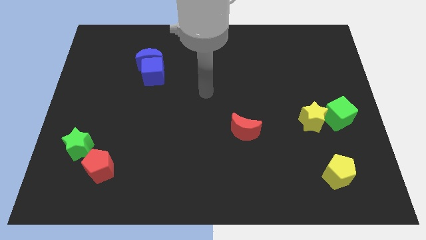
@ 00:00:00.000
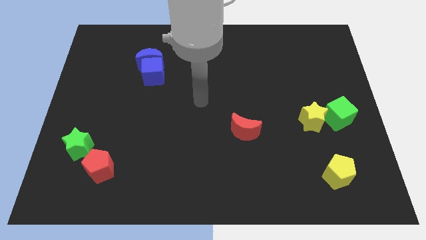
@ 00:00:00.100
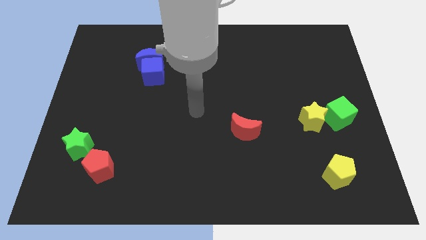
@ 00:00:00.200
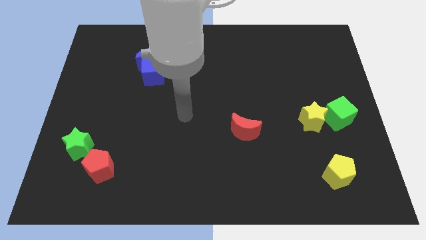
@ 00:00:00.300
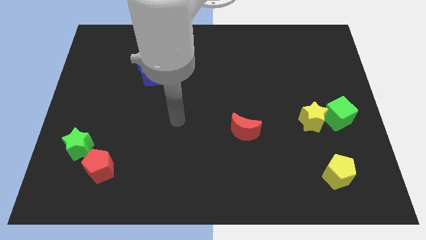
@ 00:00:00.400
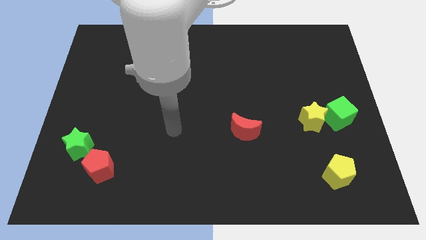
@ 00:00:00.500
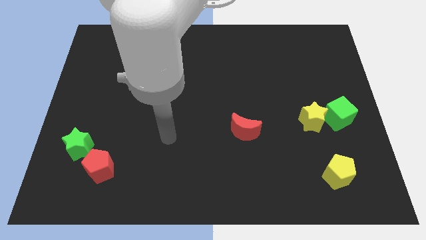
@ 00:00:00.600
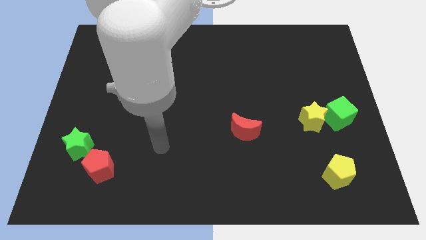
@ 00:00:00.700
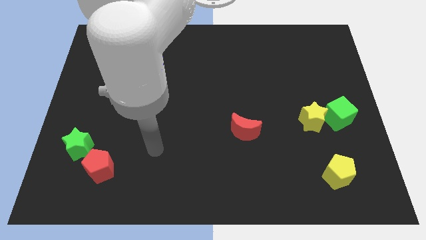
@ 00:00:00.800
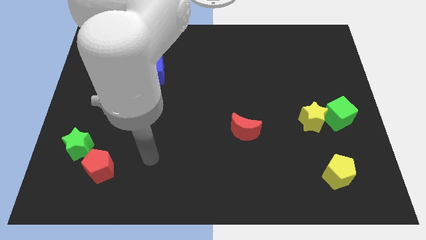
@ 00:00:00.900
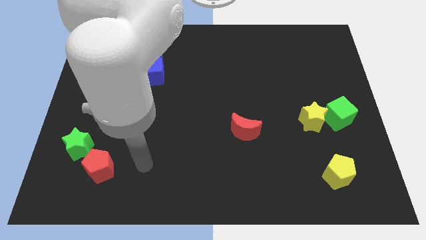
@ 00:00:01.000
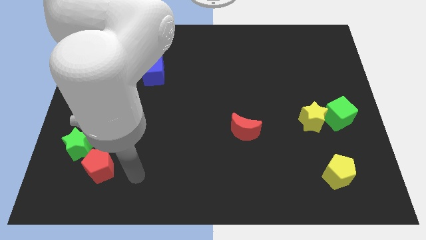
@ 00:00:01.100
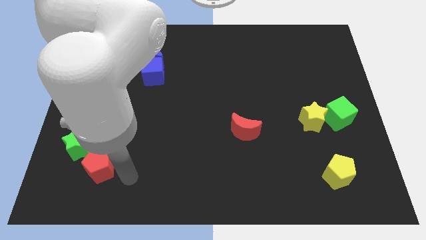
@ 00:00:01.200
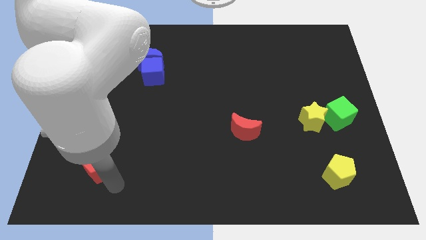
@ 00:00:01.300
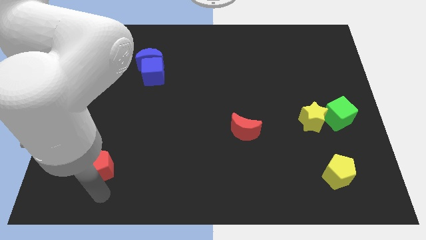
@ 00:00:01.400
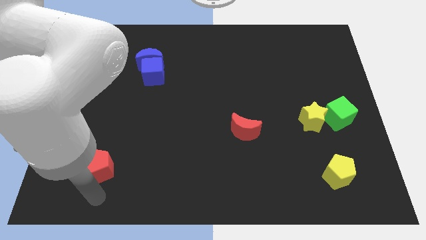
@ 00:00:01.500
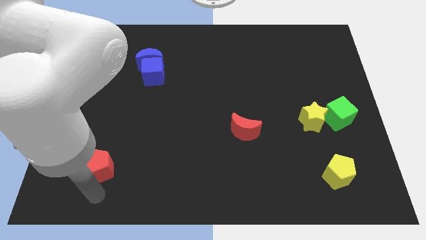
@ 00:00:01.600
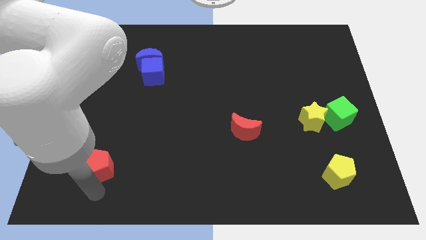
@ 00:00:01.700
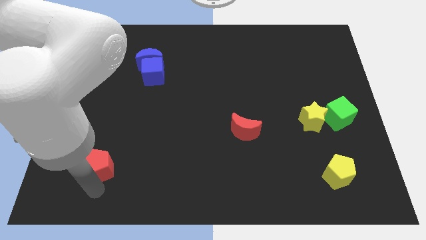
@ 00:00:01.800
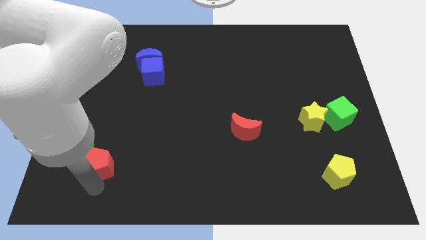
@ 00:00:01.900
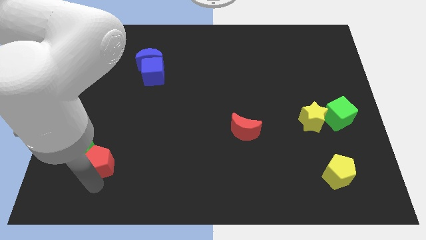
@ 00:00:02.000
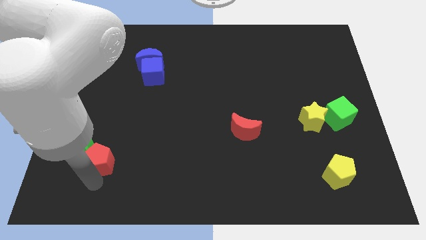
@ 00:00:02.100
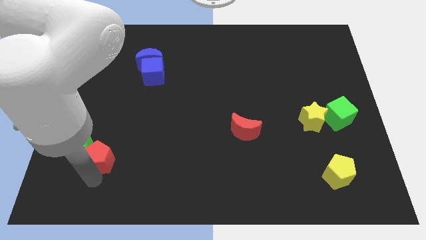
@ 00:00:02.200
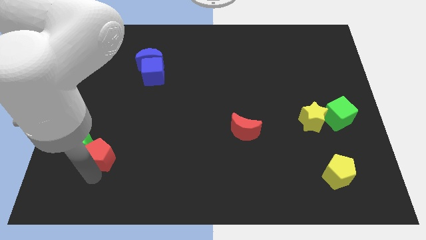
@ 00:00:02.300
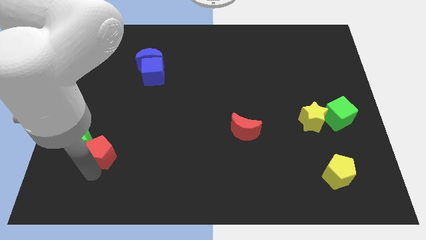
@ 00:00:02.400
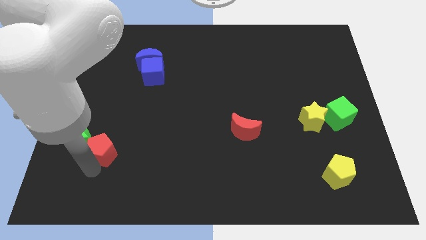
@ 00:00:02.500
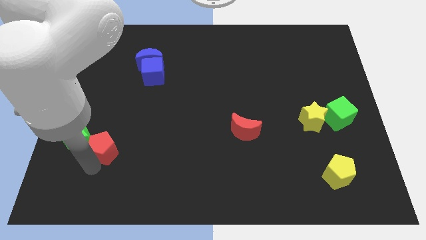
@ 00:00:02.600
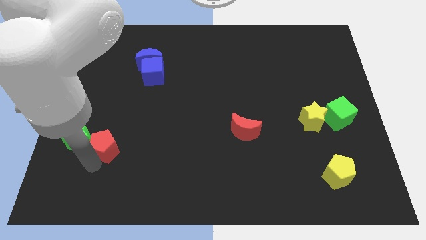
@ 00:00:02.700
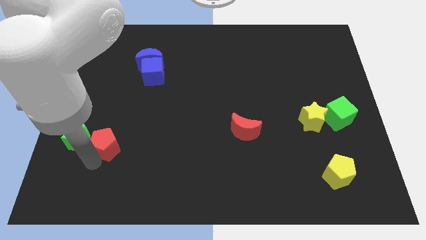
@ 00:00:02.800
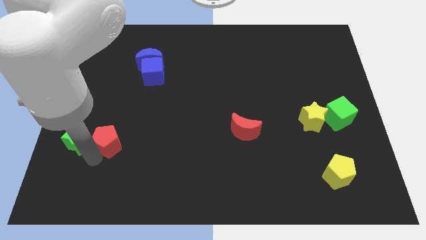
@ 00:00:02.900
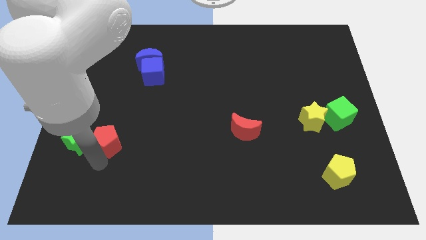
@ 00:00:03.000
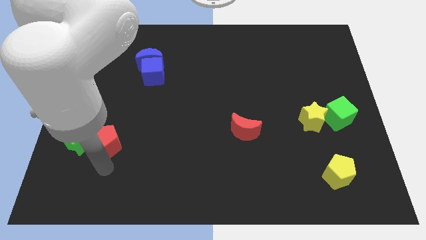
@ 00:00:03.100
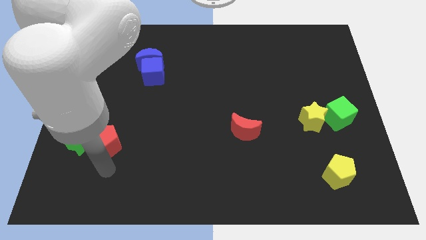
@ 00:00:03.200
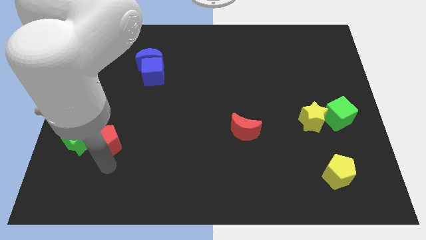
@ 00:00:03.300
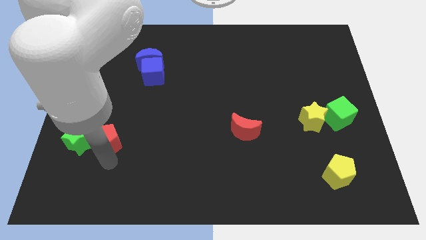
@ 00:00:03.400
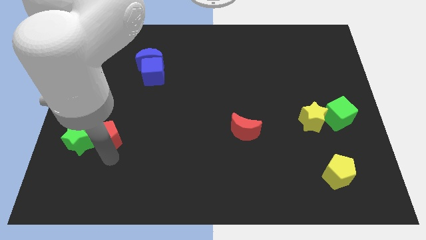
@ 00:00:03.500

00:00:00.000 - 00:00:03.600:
slightly push the red pentagon up

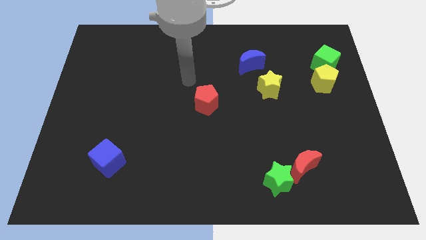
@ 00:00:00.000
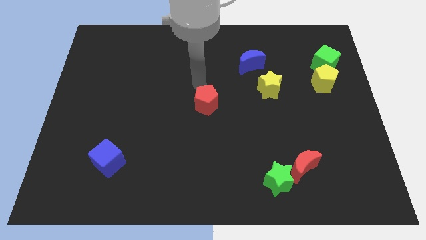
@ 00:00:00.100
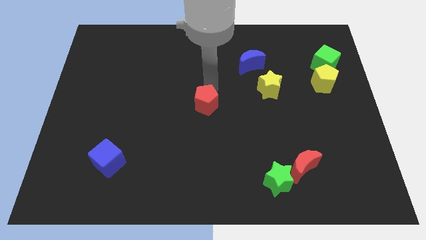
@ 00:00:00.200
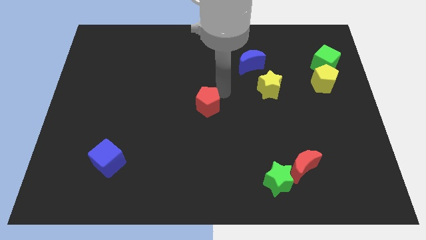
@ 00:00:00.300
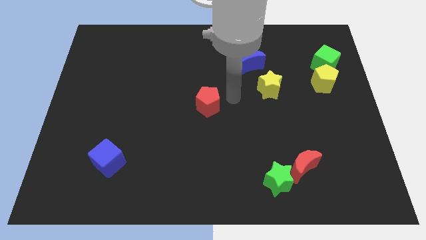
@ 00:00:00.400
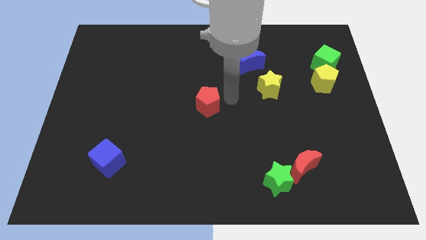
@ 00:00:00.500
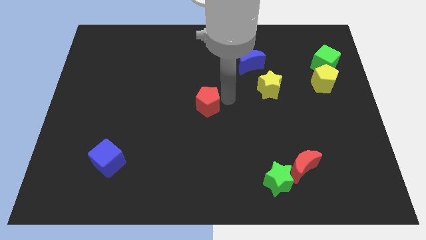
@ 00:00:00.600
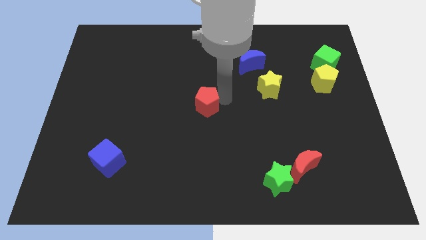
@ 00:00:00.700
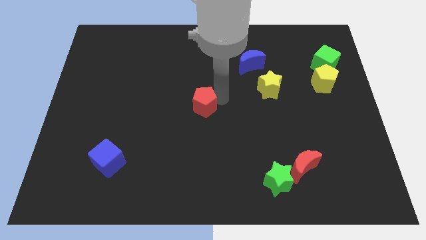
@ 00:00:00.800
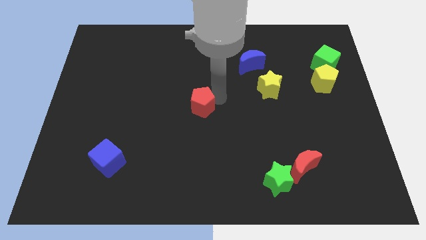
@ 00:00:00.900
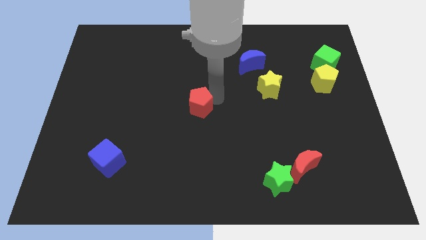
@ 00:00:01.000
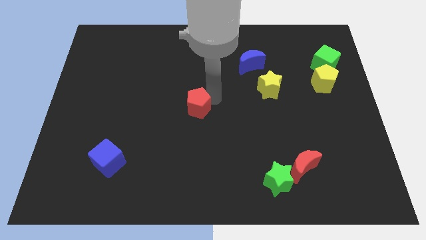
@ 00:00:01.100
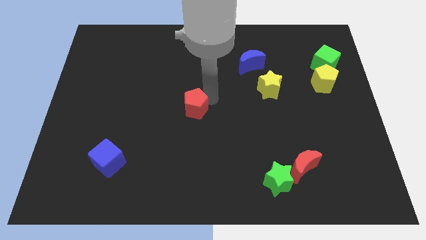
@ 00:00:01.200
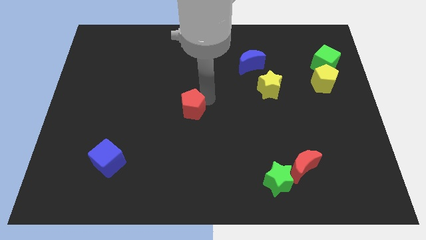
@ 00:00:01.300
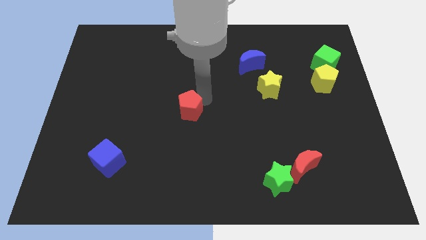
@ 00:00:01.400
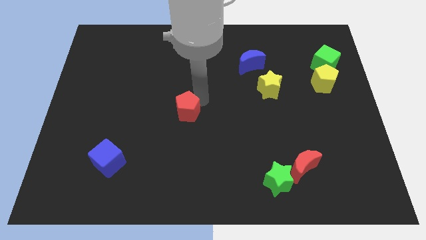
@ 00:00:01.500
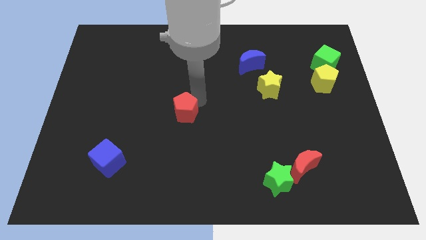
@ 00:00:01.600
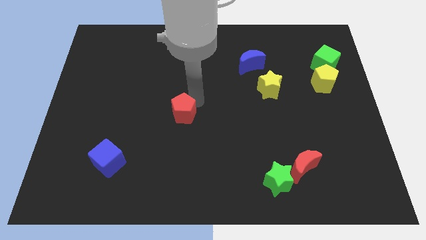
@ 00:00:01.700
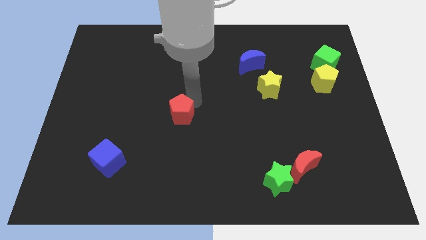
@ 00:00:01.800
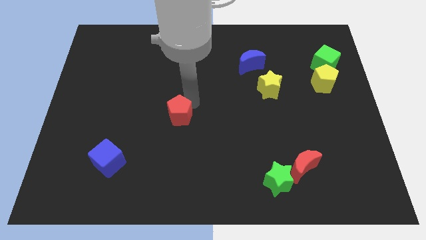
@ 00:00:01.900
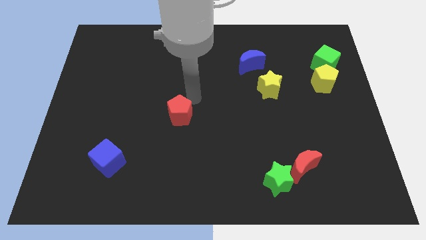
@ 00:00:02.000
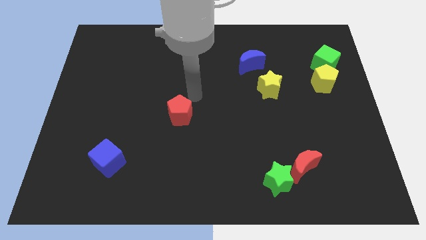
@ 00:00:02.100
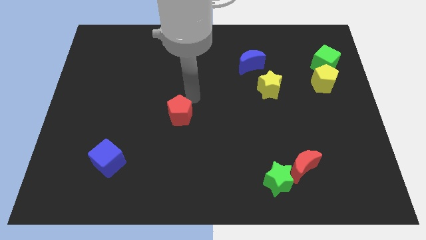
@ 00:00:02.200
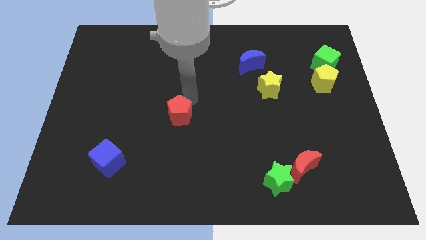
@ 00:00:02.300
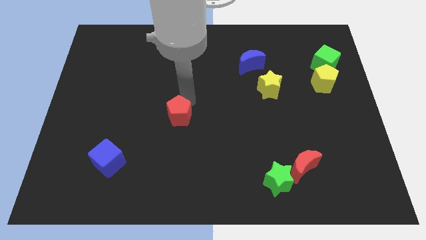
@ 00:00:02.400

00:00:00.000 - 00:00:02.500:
slightly slide the red pentagon downwards and to the left diagonally

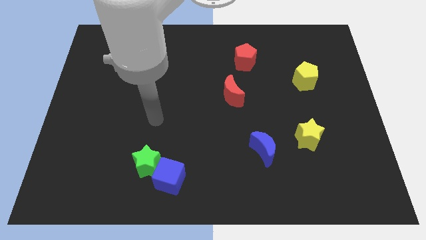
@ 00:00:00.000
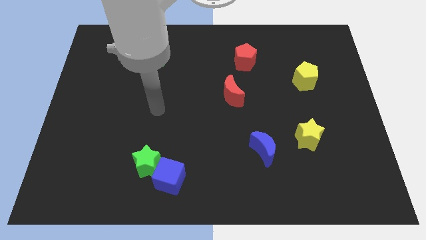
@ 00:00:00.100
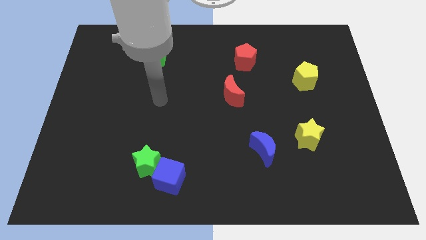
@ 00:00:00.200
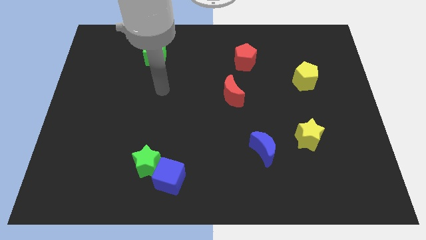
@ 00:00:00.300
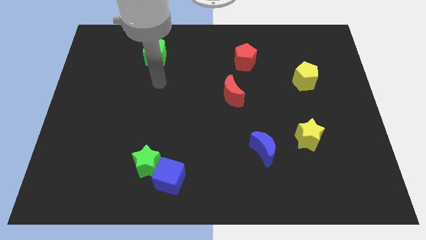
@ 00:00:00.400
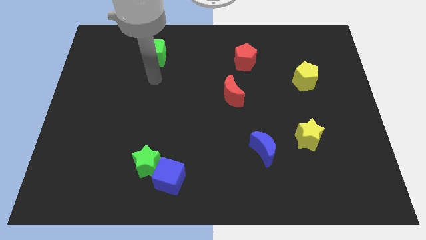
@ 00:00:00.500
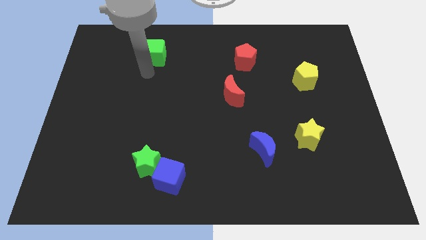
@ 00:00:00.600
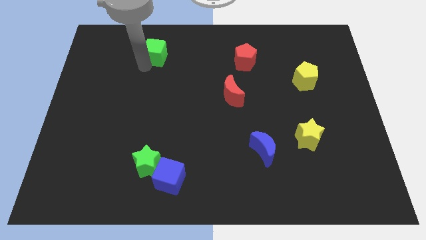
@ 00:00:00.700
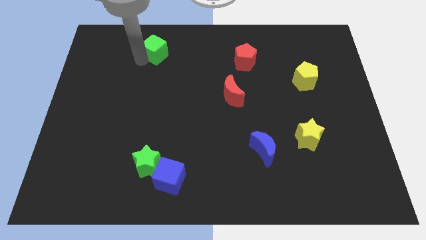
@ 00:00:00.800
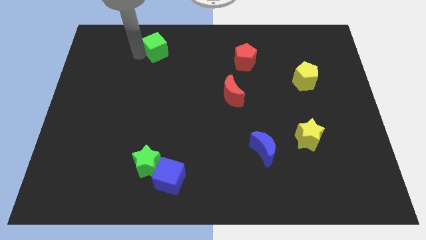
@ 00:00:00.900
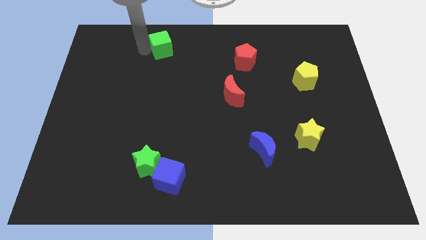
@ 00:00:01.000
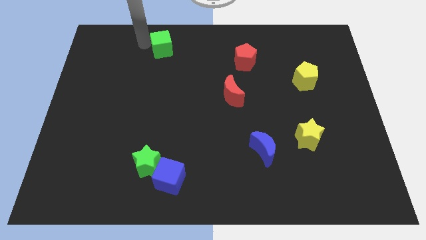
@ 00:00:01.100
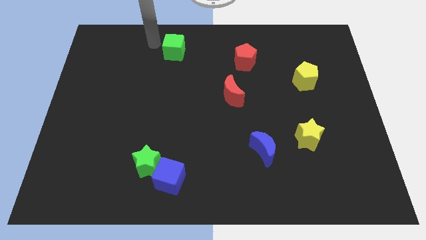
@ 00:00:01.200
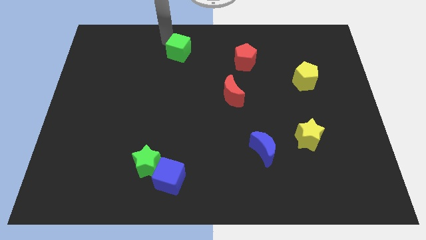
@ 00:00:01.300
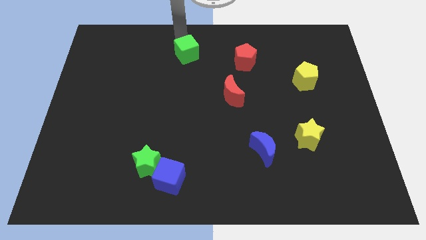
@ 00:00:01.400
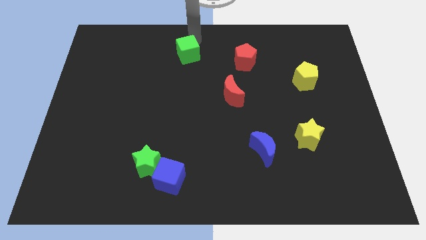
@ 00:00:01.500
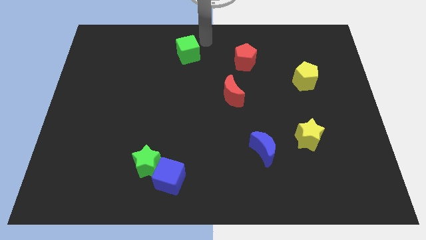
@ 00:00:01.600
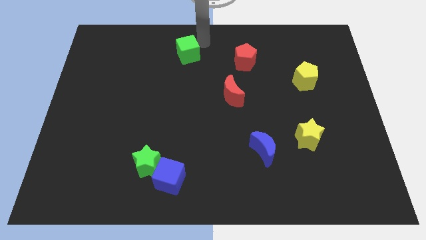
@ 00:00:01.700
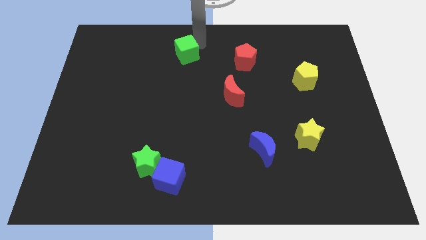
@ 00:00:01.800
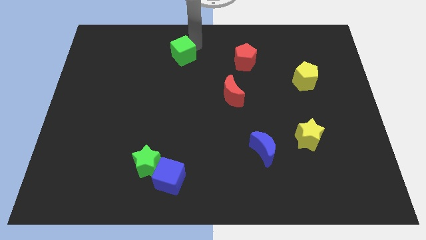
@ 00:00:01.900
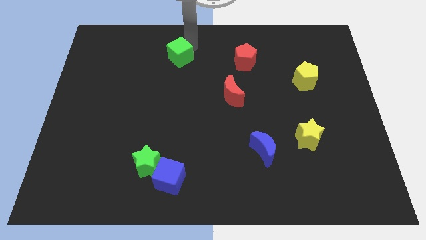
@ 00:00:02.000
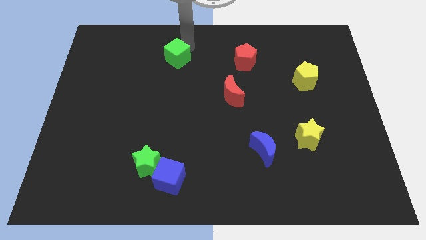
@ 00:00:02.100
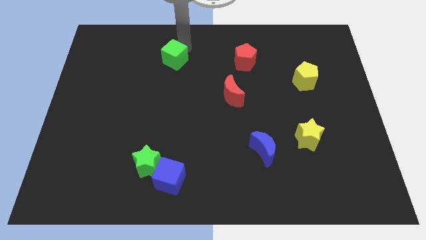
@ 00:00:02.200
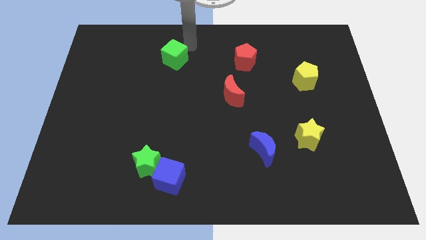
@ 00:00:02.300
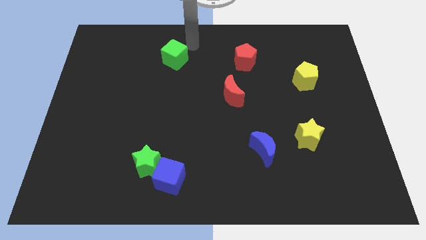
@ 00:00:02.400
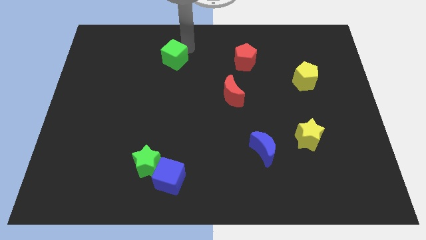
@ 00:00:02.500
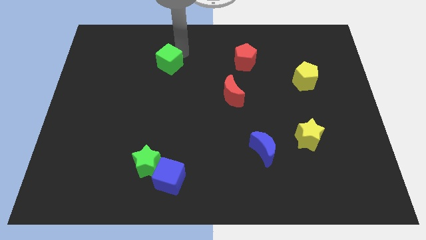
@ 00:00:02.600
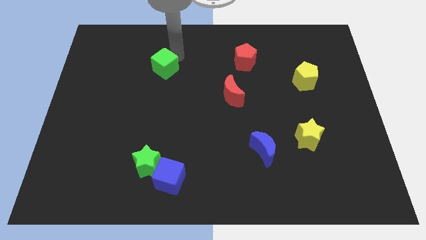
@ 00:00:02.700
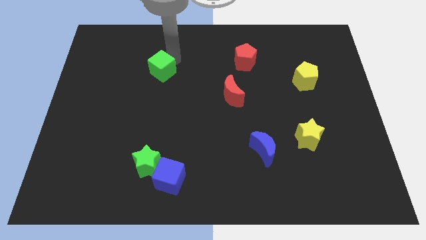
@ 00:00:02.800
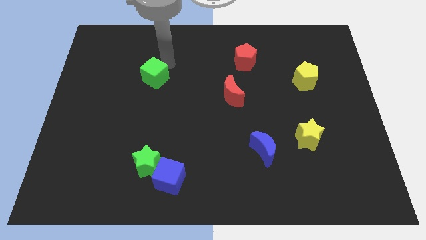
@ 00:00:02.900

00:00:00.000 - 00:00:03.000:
move the green cube slightly down
